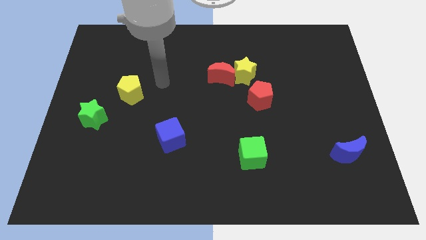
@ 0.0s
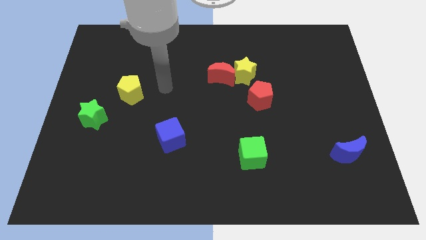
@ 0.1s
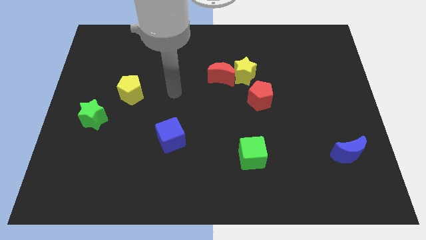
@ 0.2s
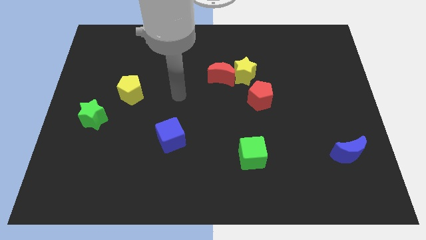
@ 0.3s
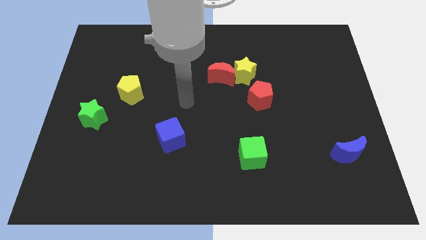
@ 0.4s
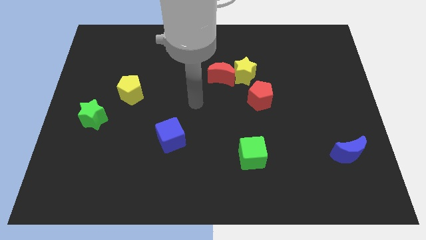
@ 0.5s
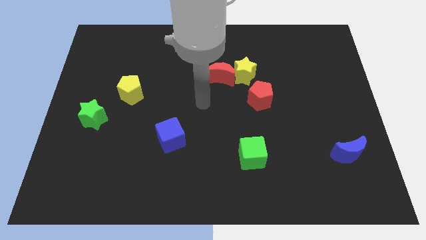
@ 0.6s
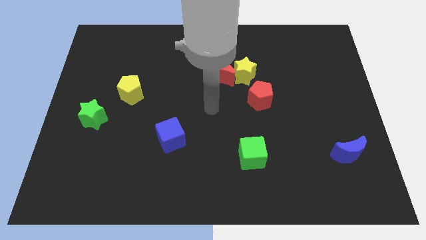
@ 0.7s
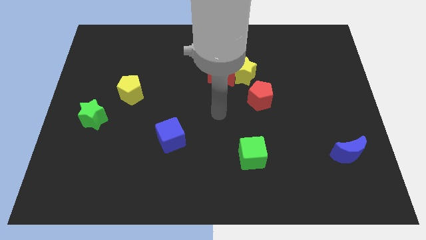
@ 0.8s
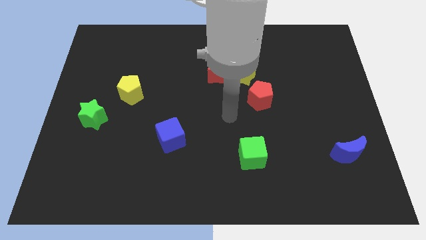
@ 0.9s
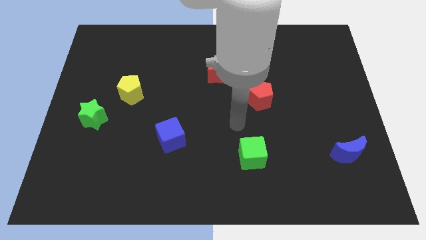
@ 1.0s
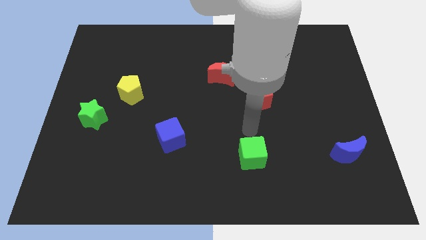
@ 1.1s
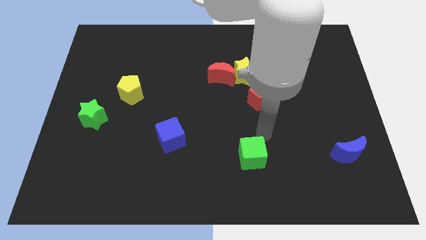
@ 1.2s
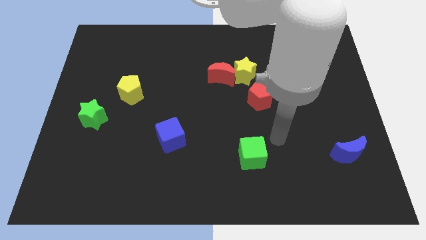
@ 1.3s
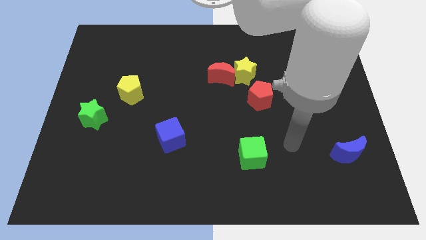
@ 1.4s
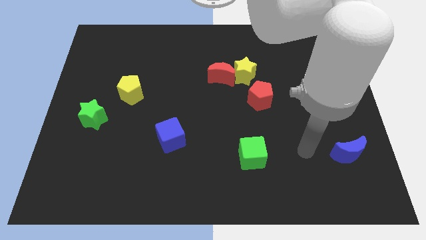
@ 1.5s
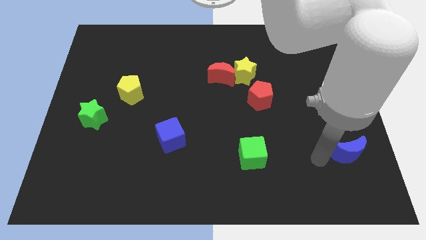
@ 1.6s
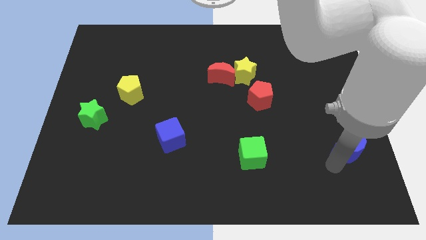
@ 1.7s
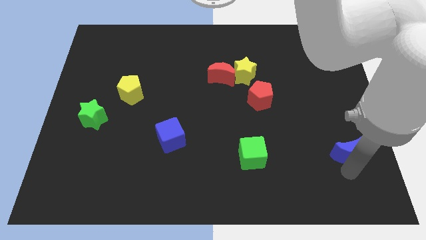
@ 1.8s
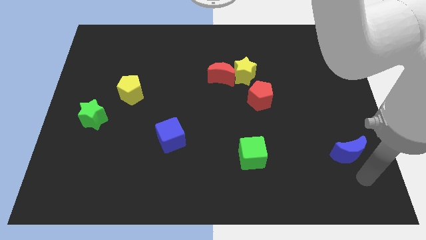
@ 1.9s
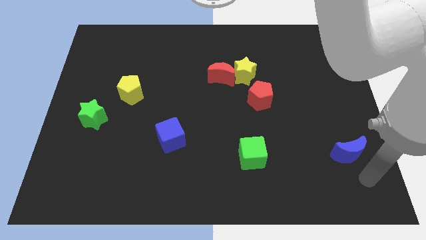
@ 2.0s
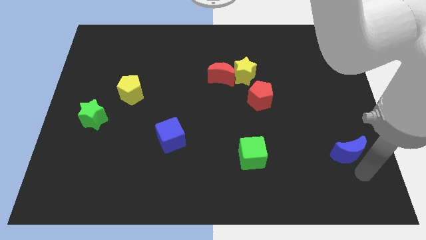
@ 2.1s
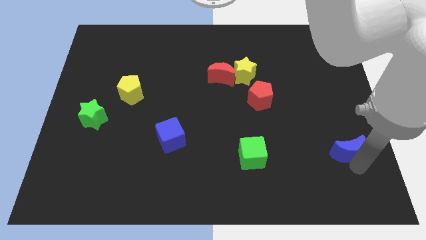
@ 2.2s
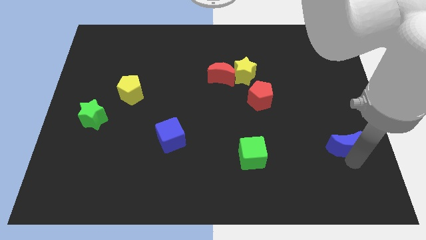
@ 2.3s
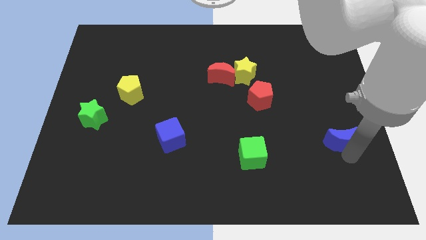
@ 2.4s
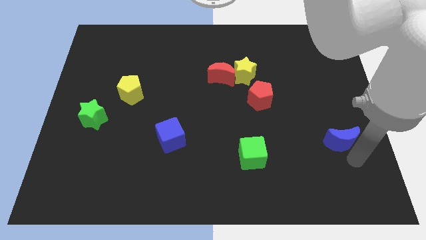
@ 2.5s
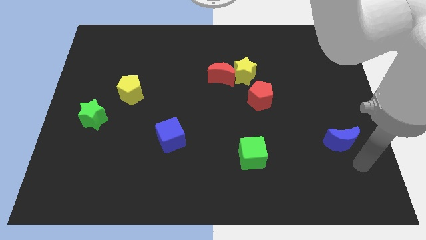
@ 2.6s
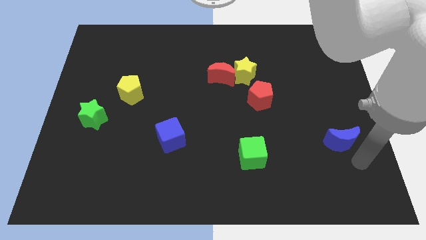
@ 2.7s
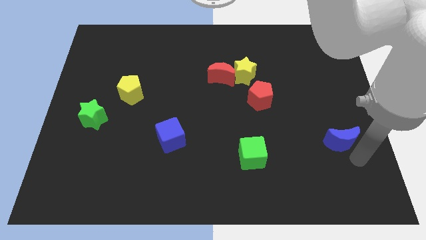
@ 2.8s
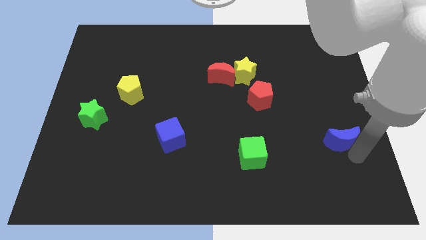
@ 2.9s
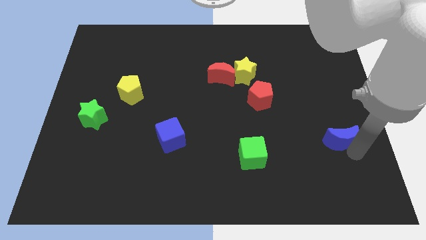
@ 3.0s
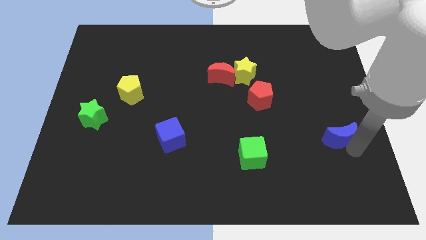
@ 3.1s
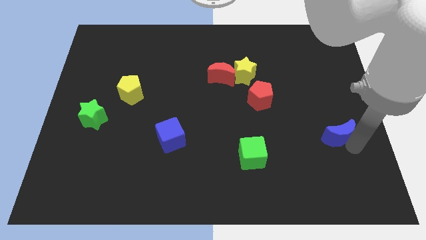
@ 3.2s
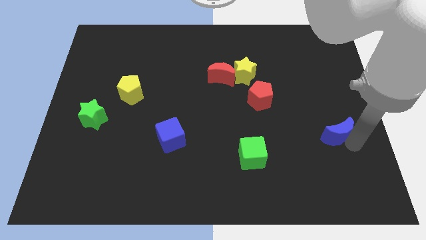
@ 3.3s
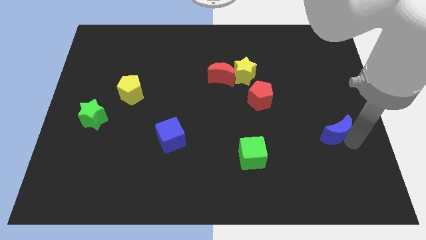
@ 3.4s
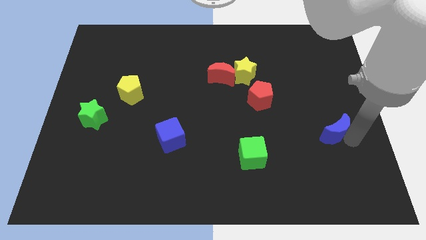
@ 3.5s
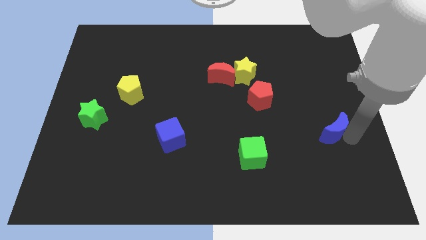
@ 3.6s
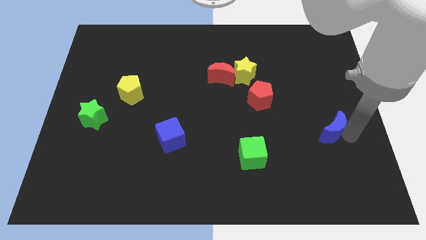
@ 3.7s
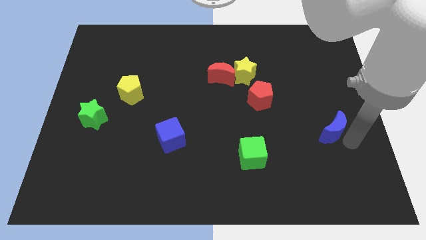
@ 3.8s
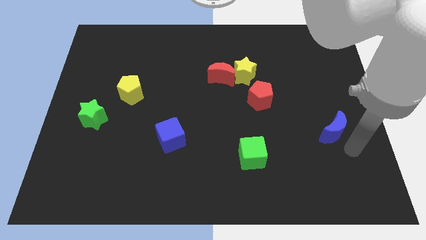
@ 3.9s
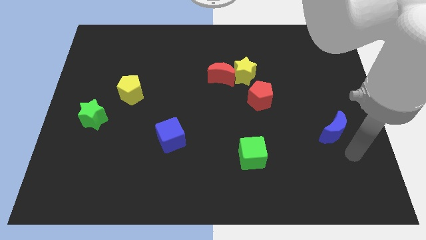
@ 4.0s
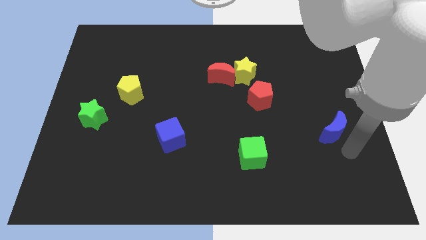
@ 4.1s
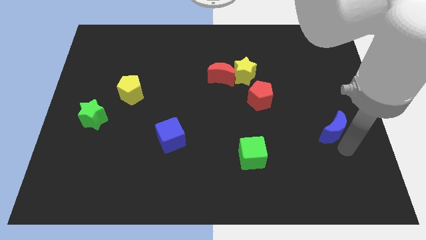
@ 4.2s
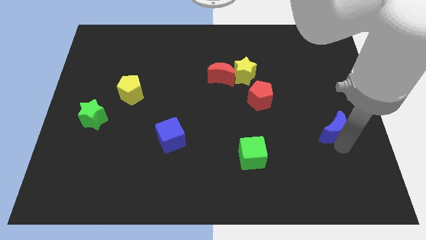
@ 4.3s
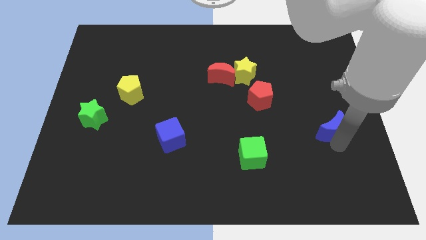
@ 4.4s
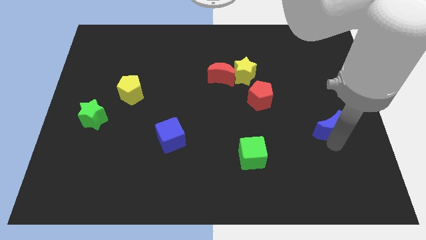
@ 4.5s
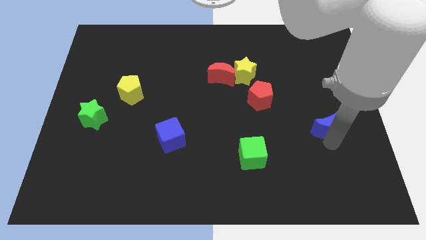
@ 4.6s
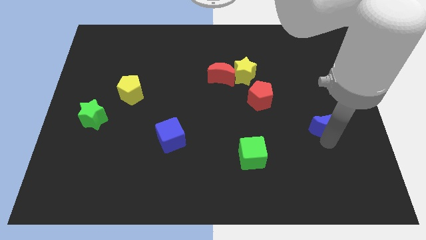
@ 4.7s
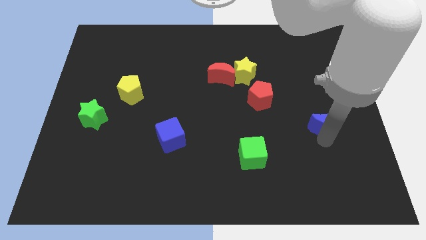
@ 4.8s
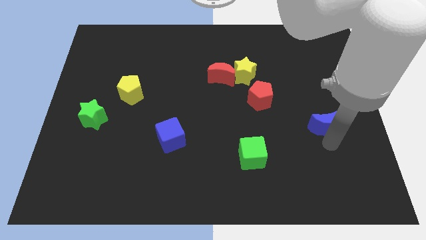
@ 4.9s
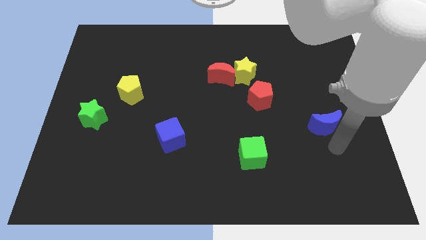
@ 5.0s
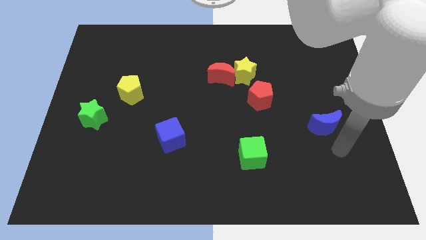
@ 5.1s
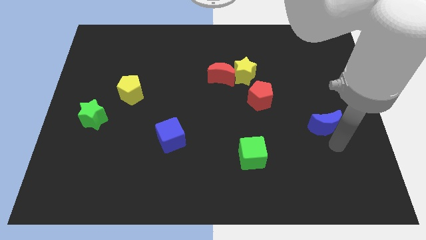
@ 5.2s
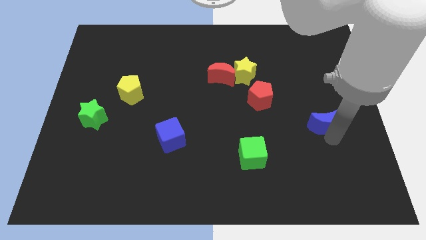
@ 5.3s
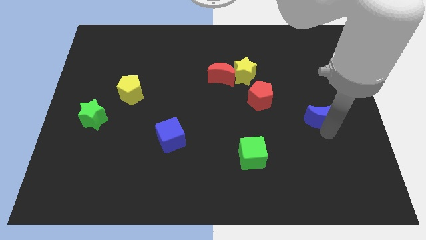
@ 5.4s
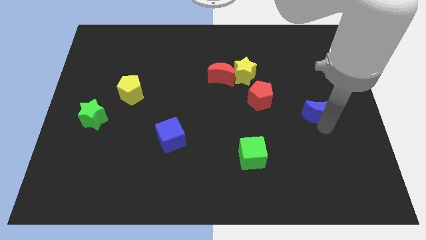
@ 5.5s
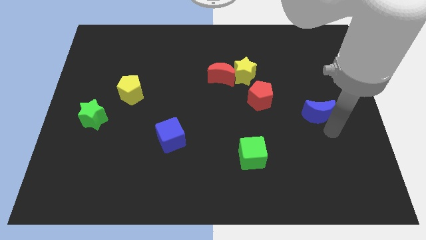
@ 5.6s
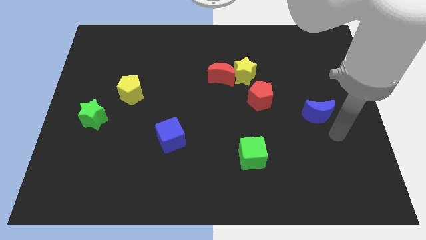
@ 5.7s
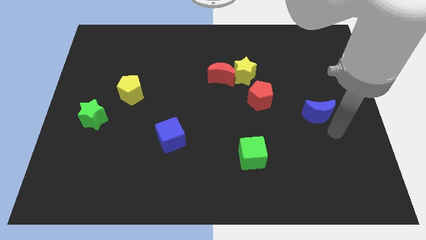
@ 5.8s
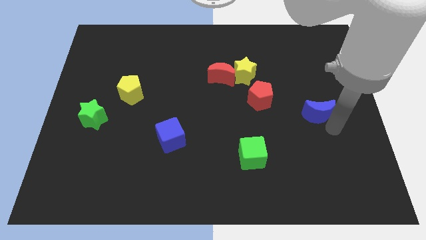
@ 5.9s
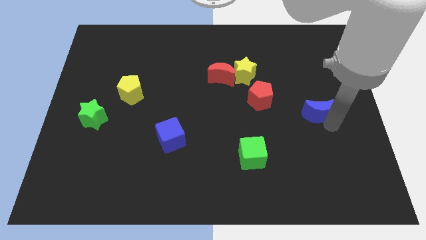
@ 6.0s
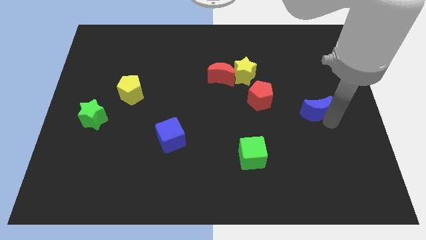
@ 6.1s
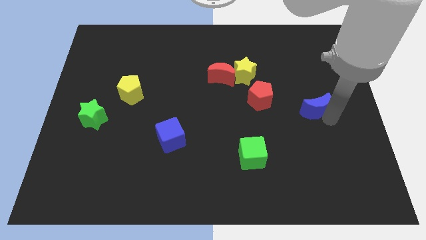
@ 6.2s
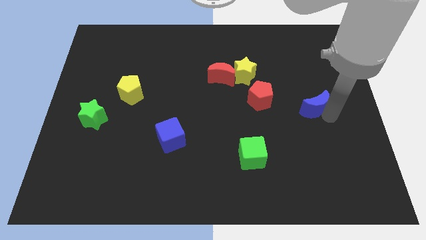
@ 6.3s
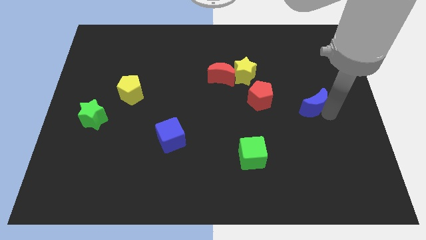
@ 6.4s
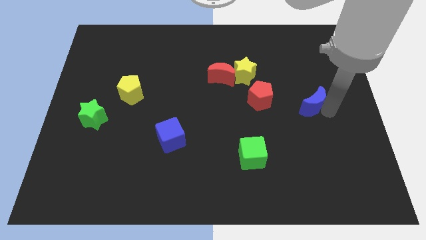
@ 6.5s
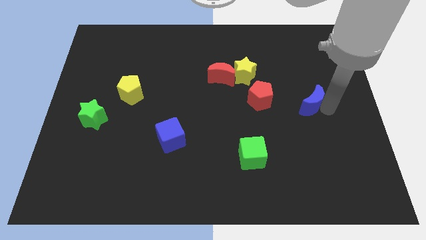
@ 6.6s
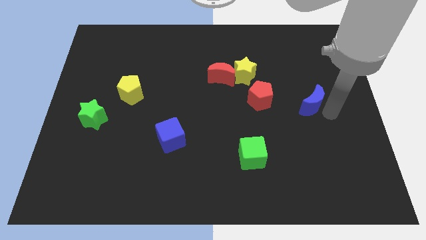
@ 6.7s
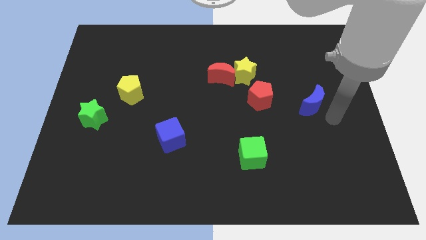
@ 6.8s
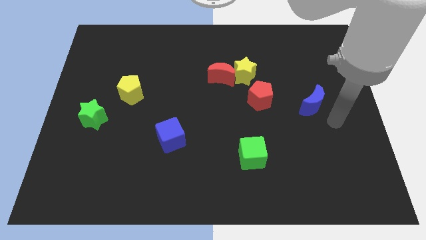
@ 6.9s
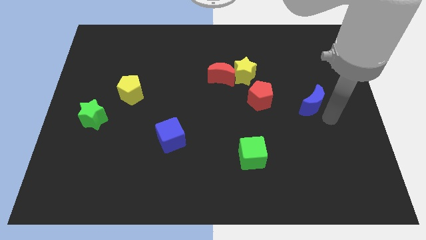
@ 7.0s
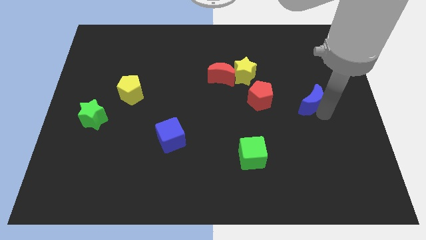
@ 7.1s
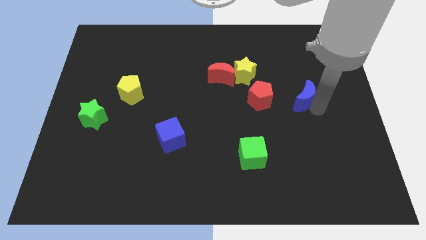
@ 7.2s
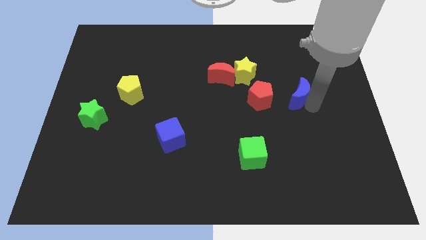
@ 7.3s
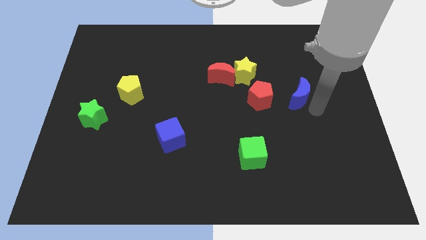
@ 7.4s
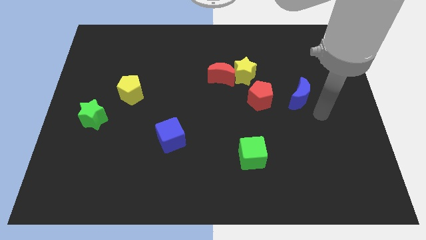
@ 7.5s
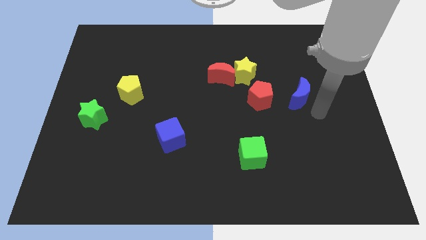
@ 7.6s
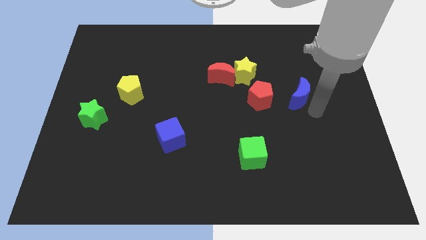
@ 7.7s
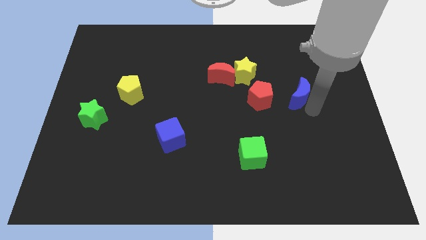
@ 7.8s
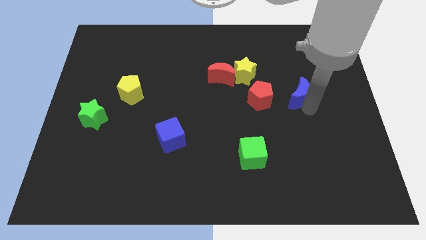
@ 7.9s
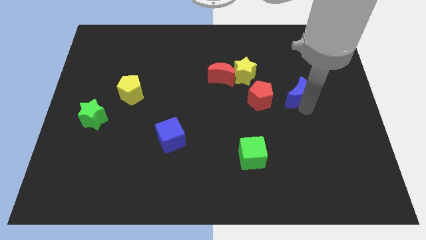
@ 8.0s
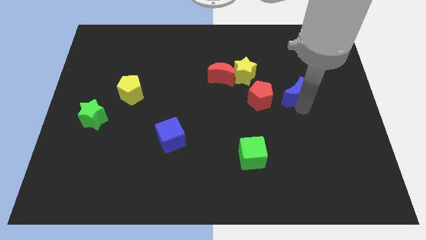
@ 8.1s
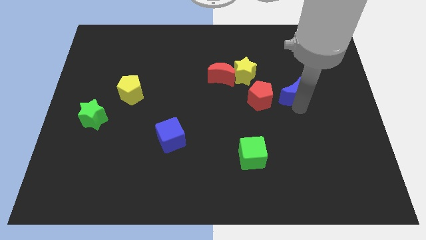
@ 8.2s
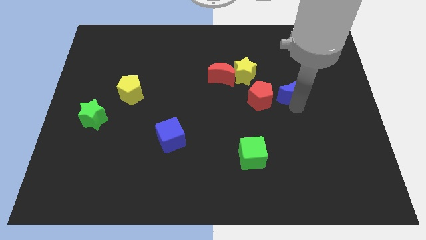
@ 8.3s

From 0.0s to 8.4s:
put the blue moon to the top right side of the red pentagon
